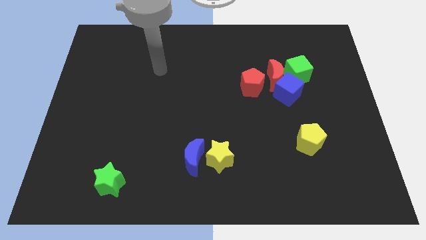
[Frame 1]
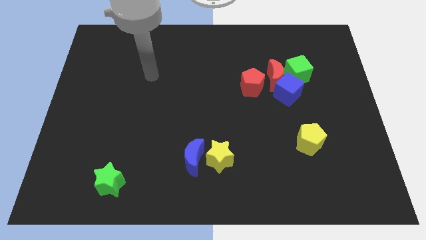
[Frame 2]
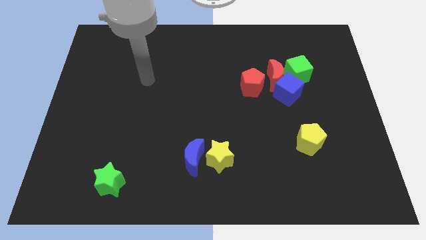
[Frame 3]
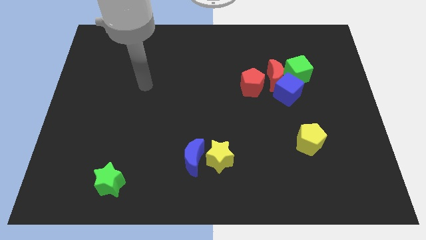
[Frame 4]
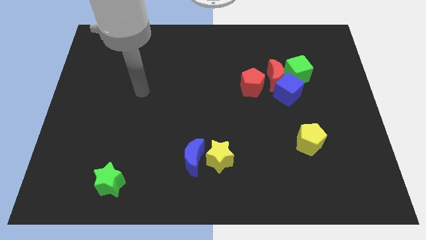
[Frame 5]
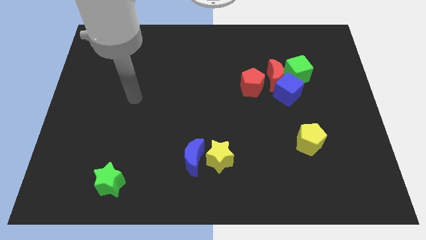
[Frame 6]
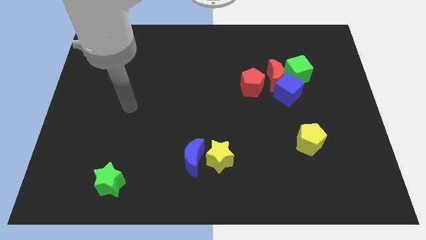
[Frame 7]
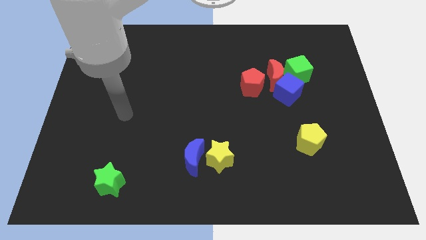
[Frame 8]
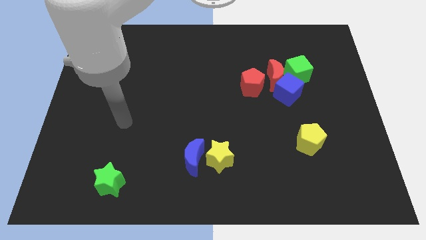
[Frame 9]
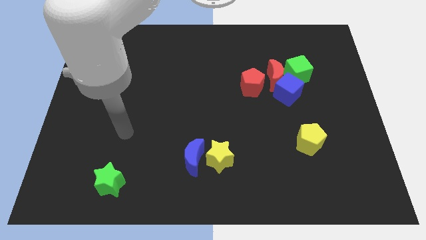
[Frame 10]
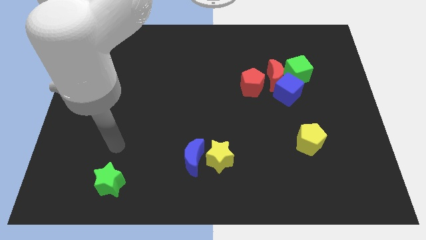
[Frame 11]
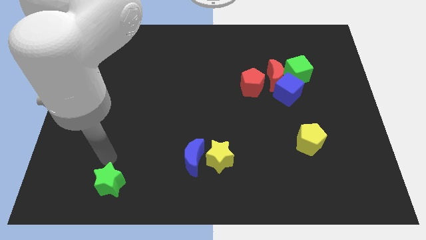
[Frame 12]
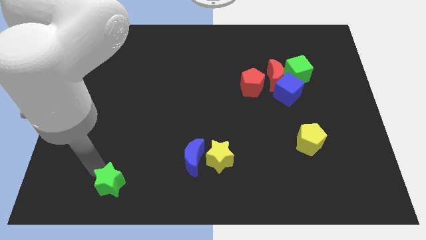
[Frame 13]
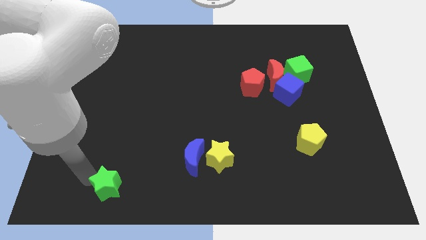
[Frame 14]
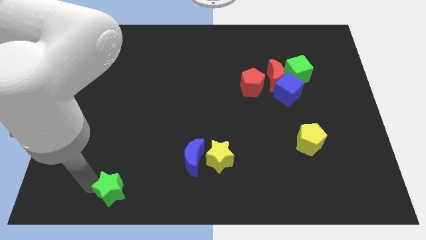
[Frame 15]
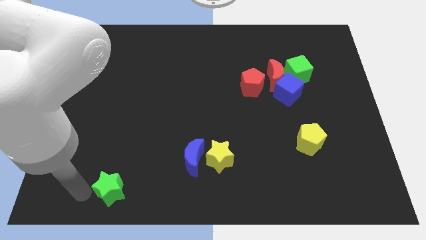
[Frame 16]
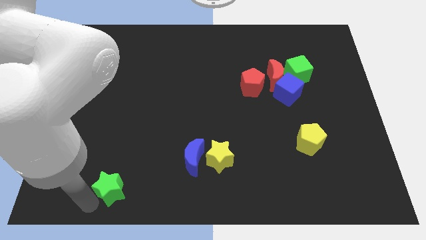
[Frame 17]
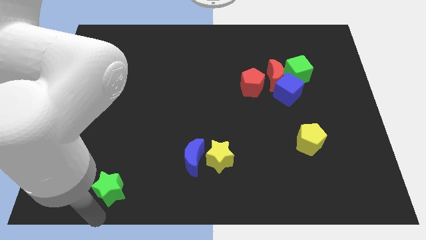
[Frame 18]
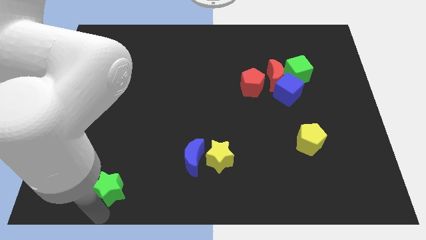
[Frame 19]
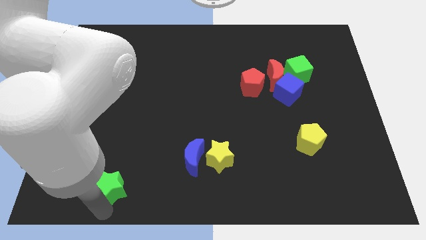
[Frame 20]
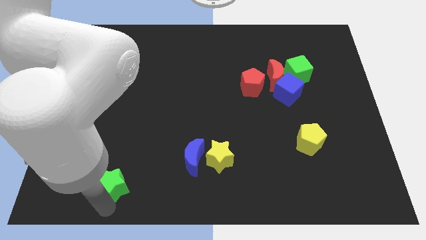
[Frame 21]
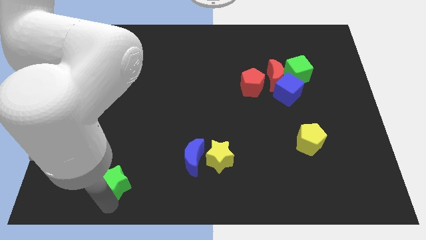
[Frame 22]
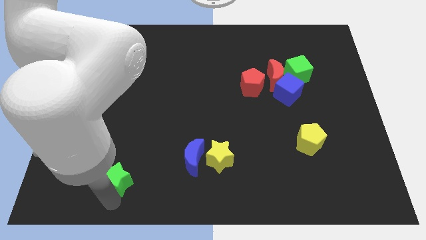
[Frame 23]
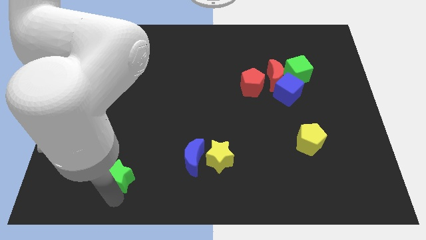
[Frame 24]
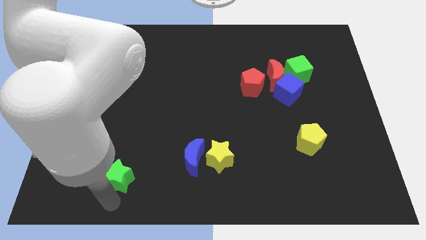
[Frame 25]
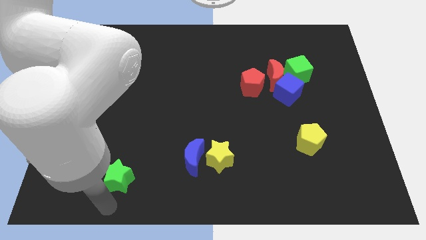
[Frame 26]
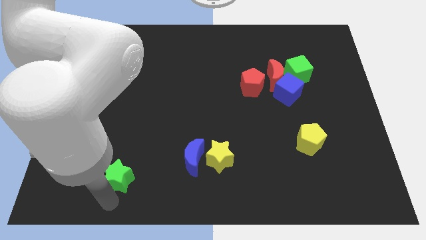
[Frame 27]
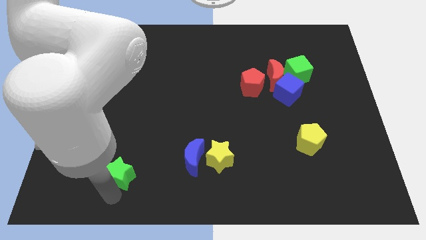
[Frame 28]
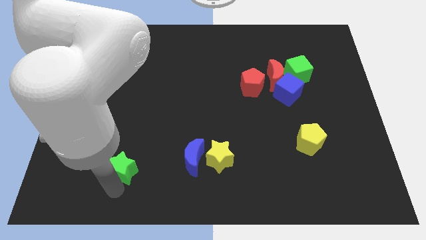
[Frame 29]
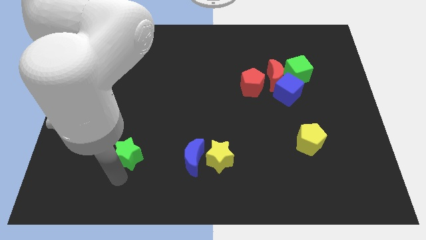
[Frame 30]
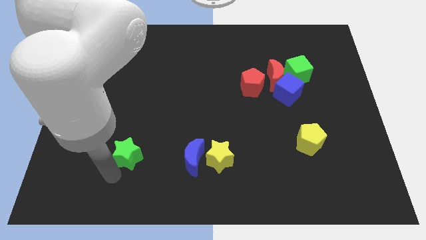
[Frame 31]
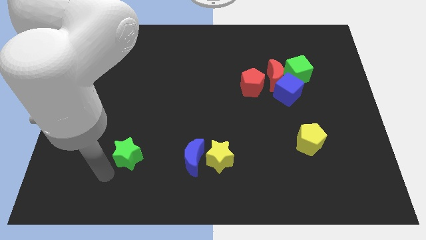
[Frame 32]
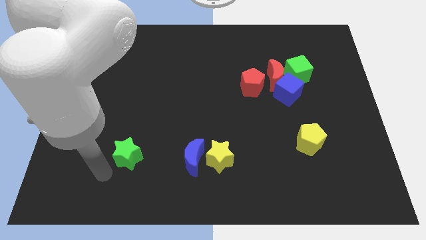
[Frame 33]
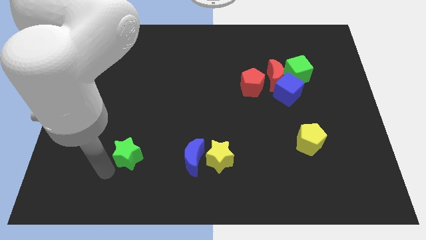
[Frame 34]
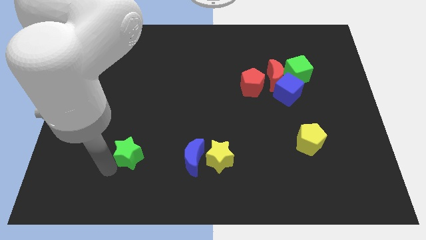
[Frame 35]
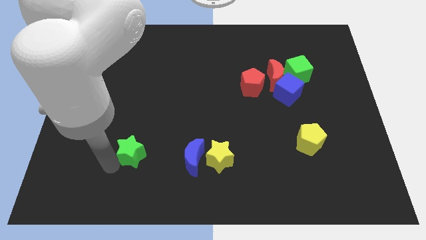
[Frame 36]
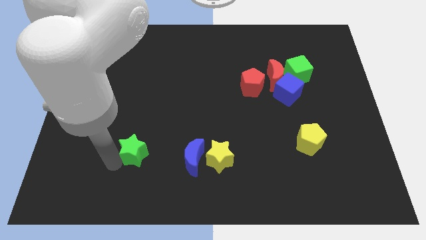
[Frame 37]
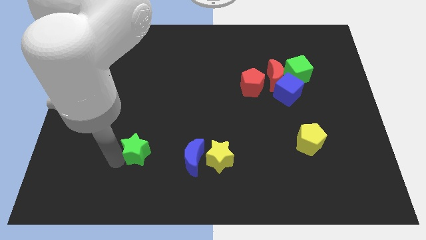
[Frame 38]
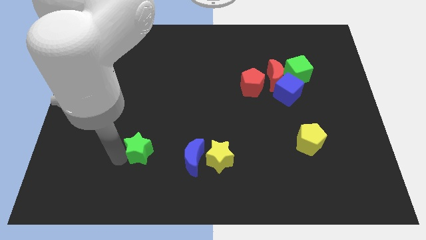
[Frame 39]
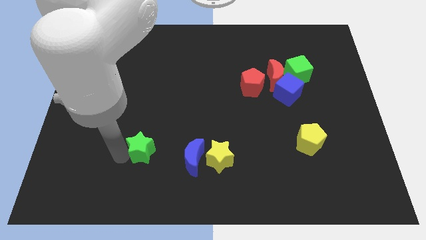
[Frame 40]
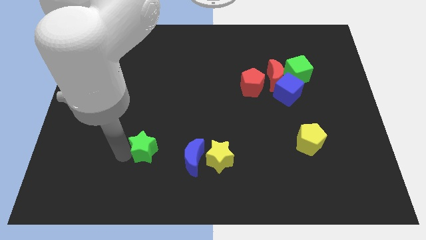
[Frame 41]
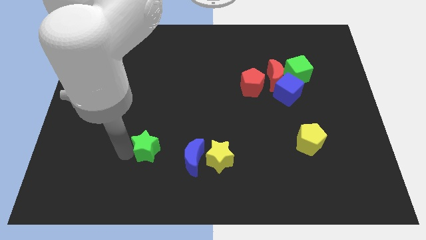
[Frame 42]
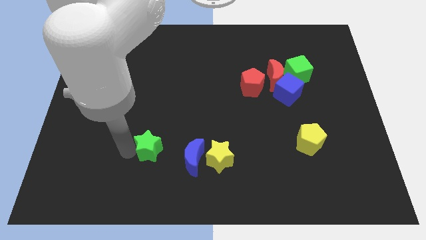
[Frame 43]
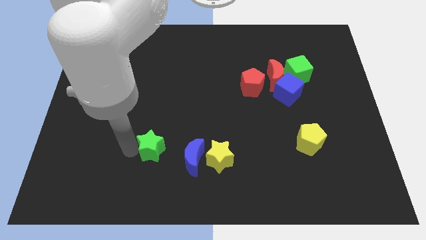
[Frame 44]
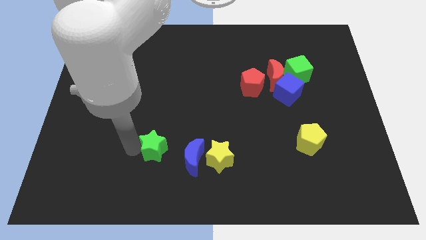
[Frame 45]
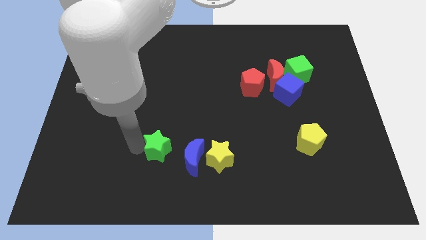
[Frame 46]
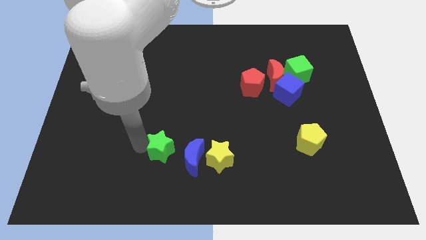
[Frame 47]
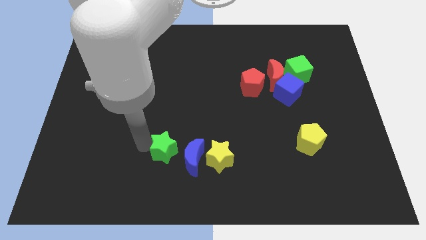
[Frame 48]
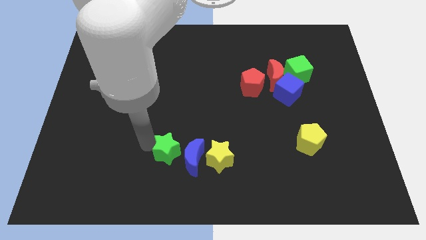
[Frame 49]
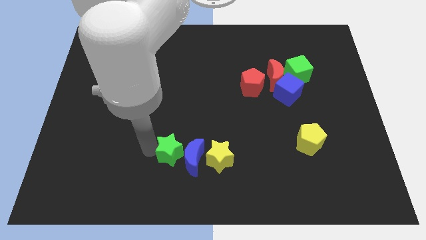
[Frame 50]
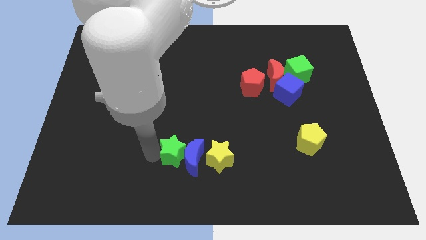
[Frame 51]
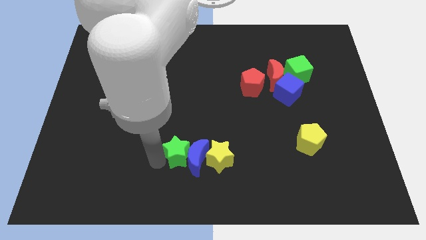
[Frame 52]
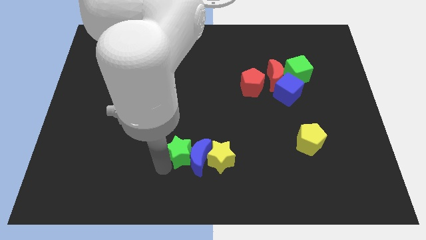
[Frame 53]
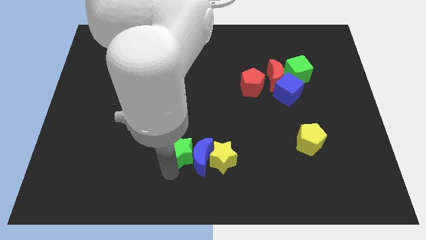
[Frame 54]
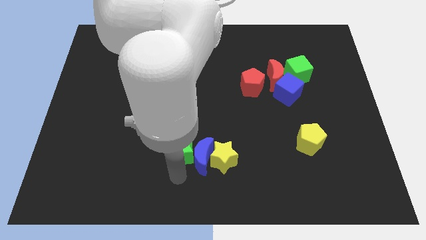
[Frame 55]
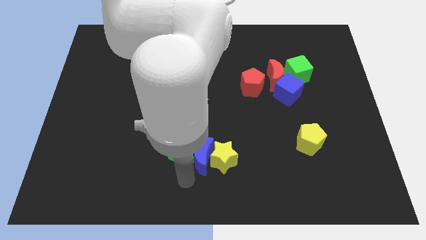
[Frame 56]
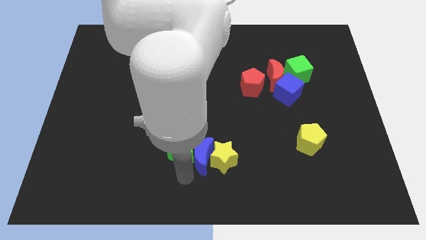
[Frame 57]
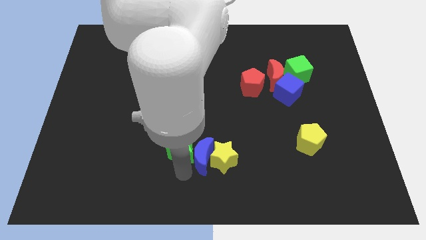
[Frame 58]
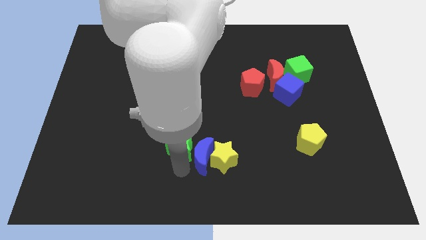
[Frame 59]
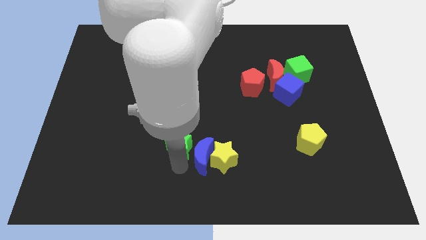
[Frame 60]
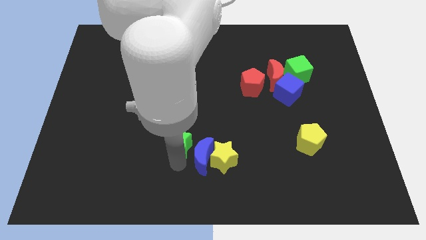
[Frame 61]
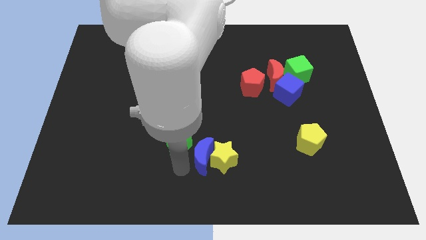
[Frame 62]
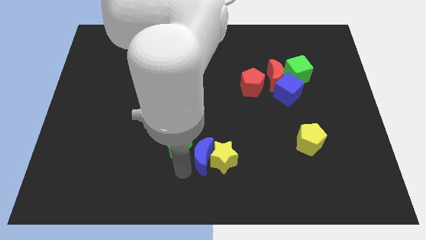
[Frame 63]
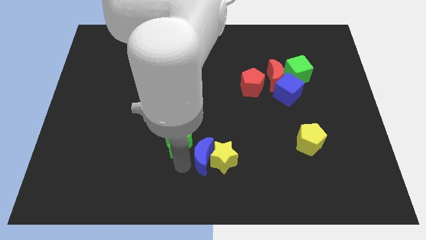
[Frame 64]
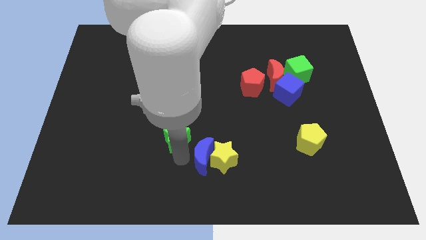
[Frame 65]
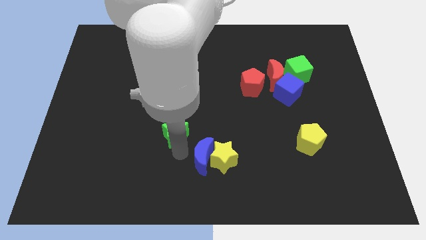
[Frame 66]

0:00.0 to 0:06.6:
slide the green star to the middle

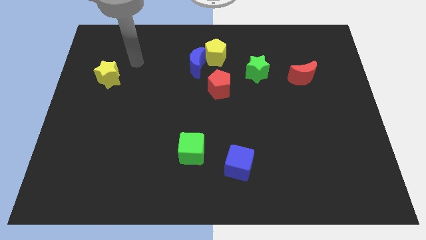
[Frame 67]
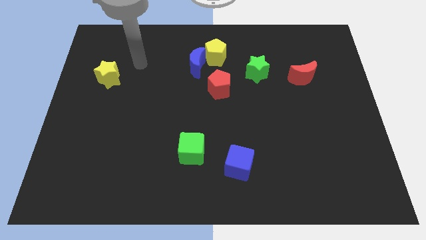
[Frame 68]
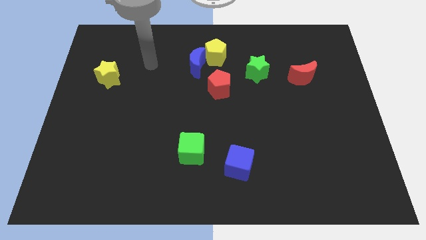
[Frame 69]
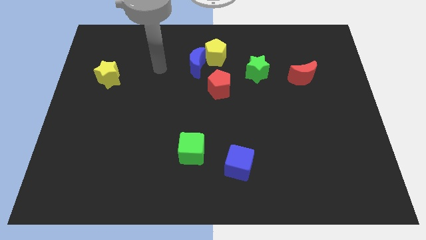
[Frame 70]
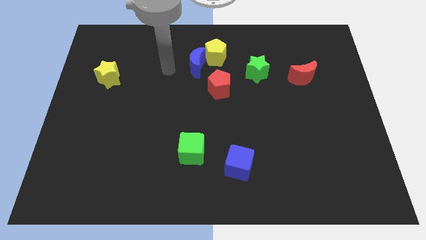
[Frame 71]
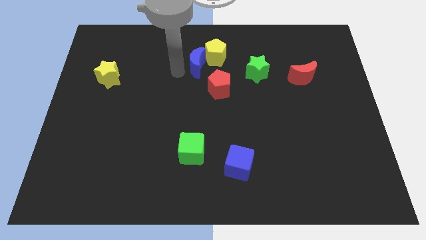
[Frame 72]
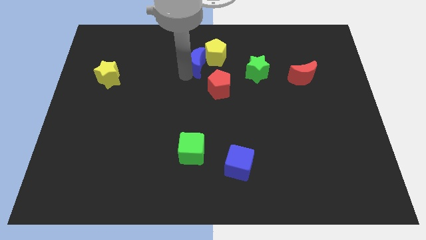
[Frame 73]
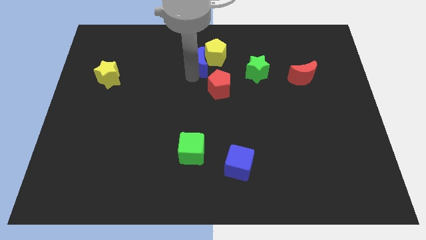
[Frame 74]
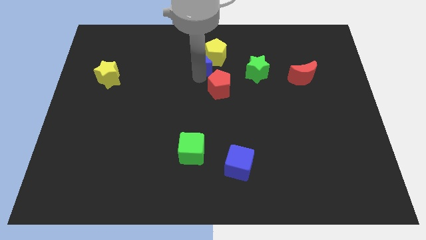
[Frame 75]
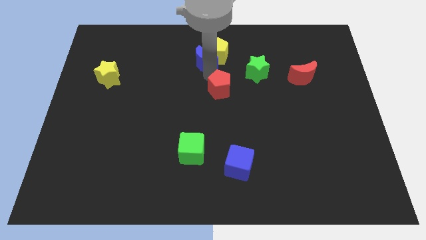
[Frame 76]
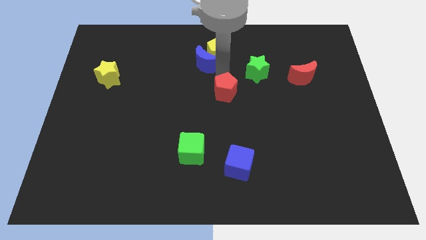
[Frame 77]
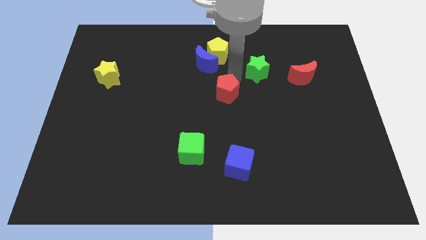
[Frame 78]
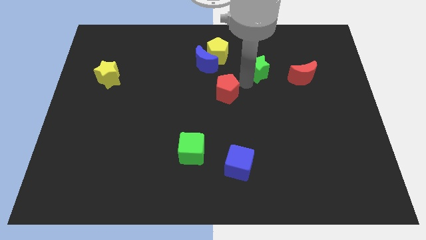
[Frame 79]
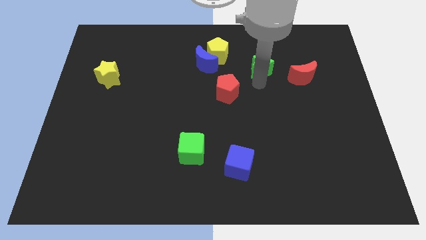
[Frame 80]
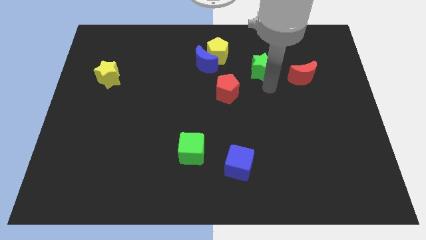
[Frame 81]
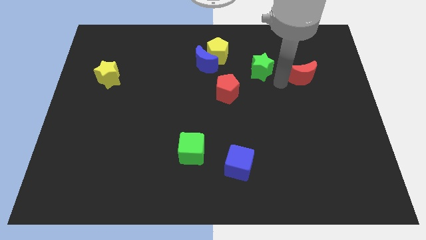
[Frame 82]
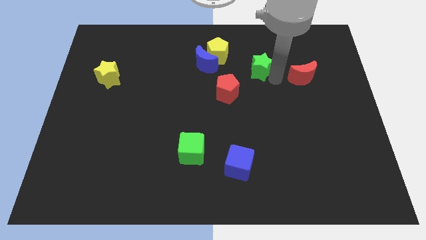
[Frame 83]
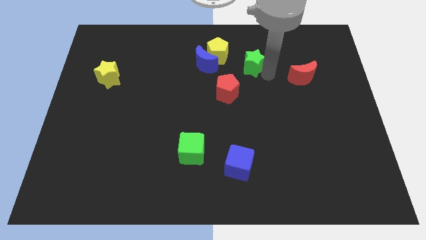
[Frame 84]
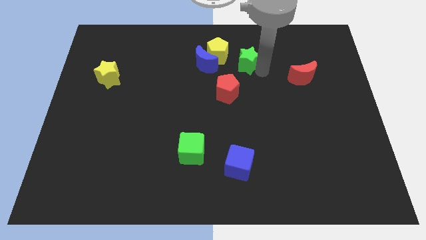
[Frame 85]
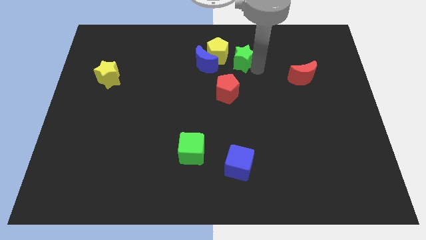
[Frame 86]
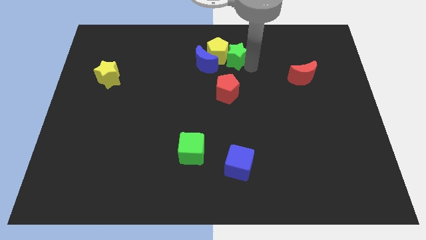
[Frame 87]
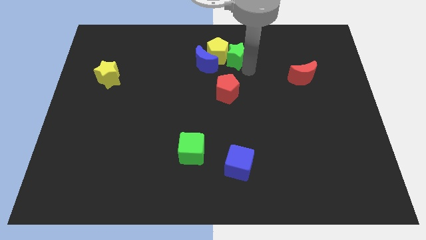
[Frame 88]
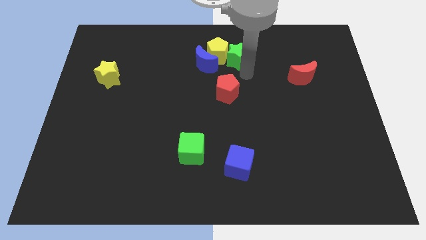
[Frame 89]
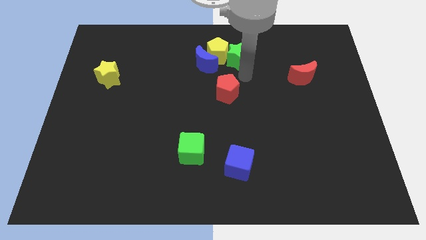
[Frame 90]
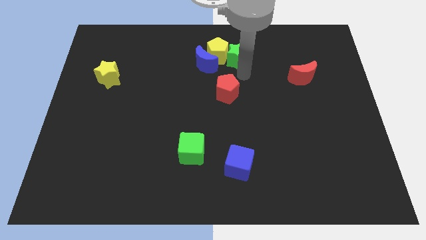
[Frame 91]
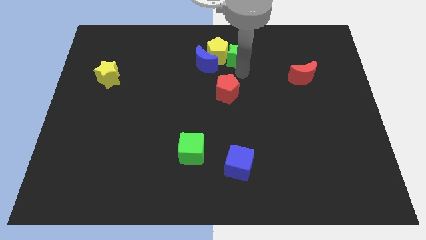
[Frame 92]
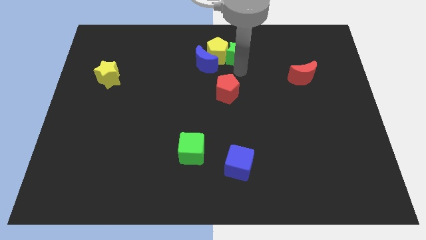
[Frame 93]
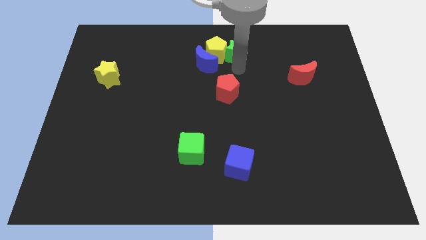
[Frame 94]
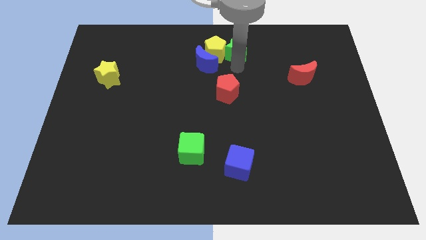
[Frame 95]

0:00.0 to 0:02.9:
slide the green star to the top side
